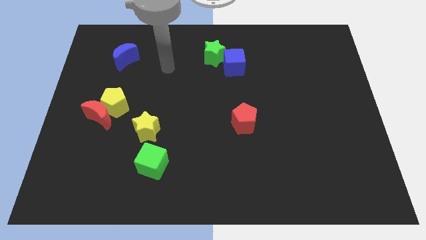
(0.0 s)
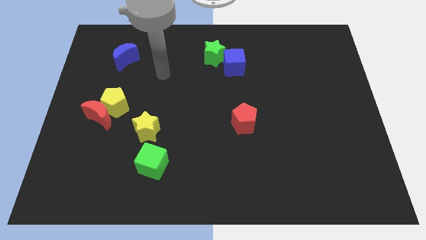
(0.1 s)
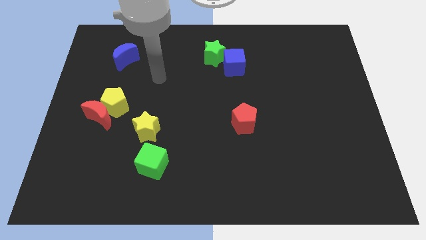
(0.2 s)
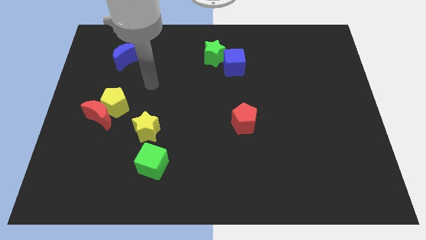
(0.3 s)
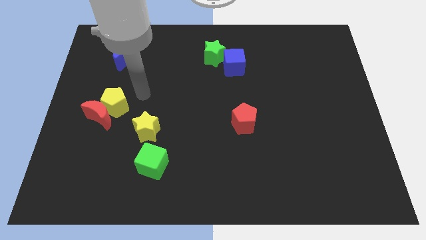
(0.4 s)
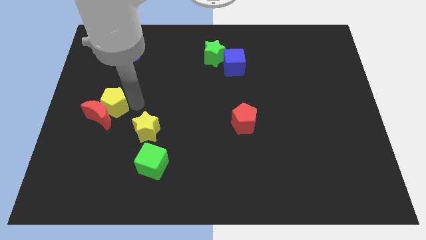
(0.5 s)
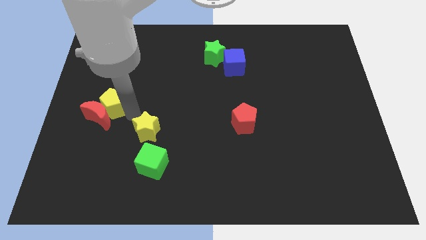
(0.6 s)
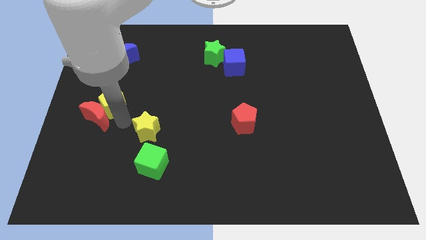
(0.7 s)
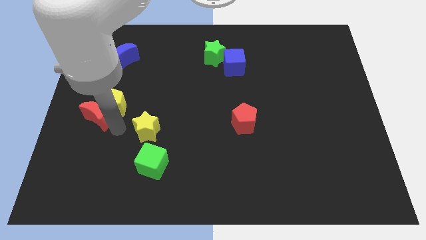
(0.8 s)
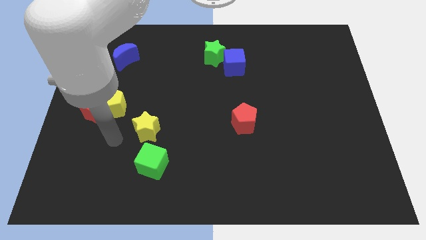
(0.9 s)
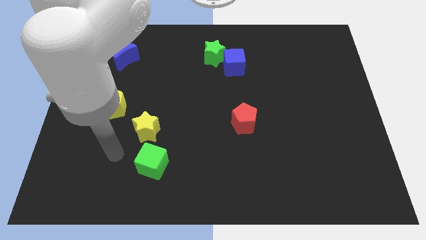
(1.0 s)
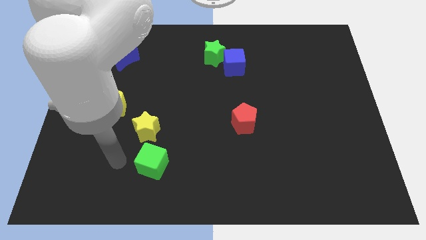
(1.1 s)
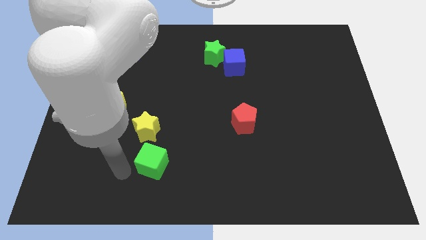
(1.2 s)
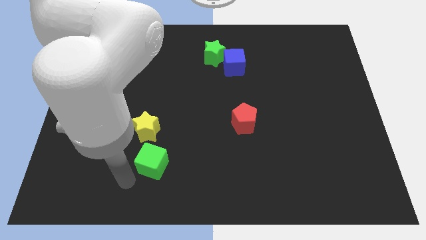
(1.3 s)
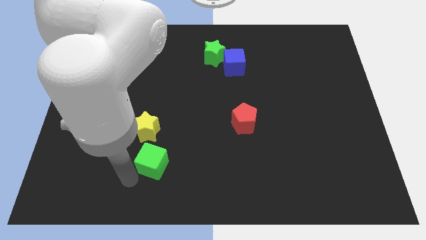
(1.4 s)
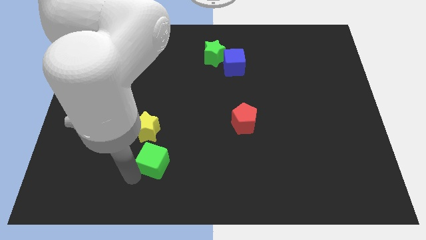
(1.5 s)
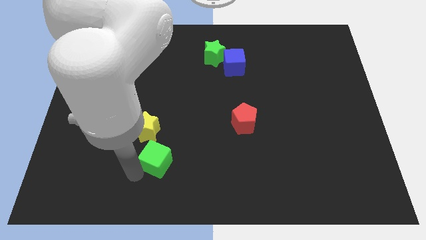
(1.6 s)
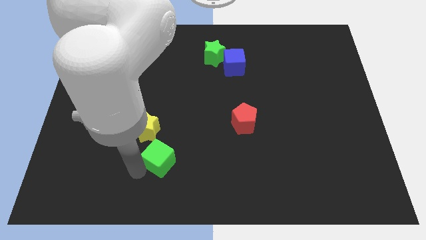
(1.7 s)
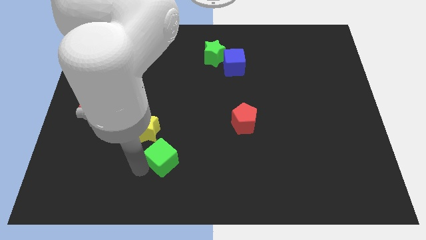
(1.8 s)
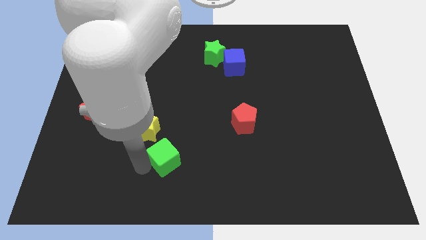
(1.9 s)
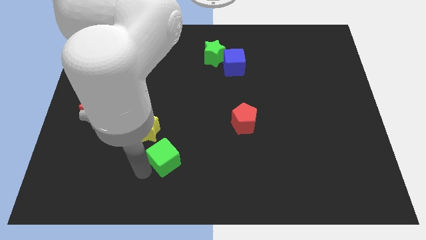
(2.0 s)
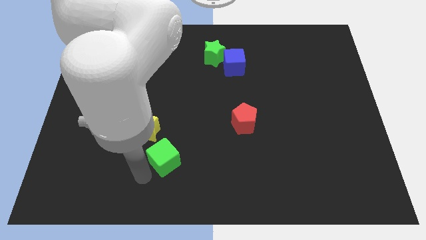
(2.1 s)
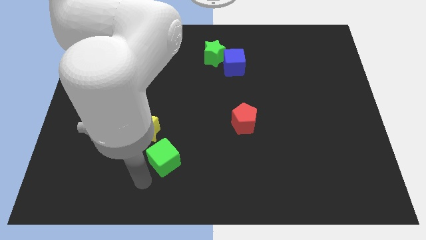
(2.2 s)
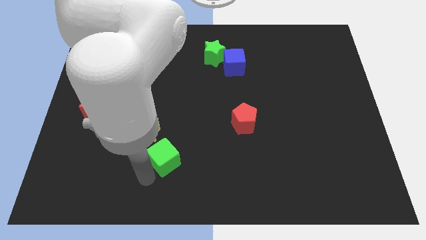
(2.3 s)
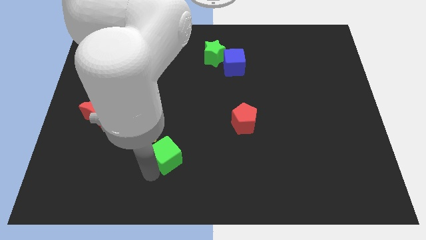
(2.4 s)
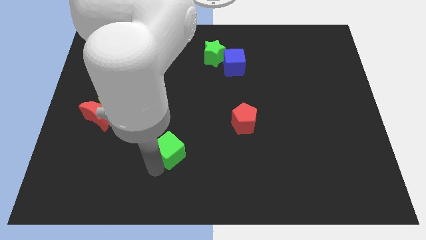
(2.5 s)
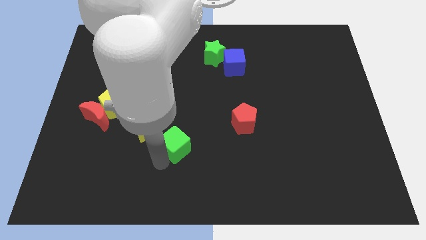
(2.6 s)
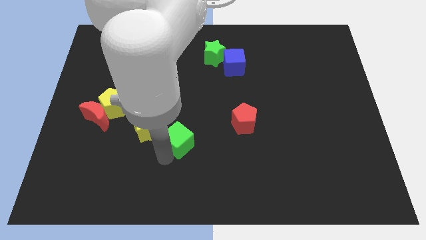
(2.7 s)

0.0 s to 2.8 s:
push the green cube a bit up and to the right diagonally

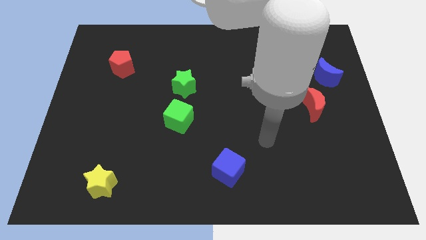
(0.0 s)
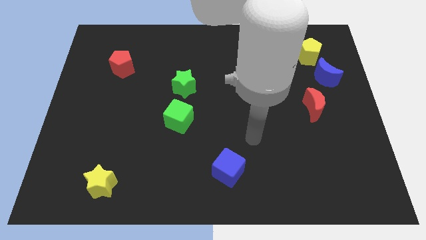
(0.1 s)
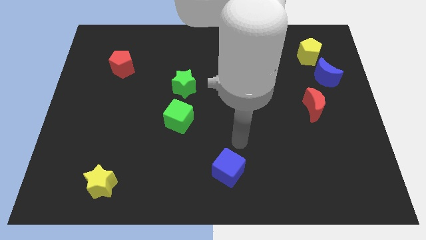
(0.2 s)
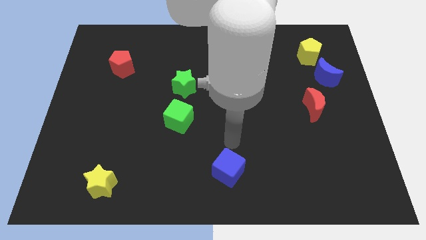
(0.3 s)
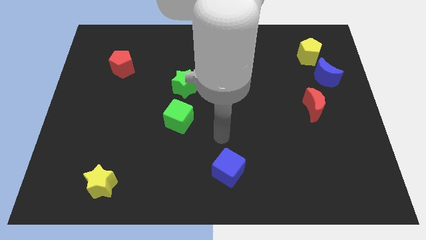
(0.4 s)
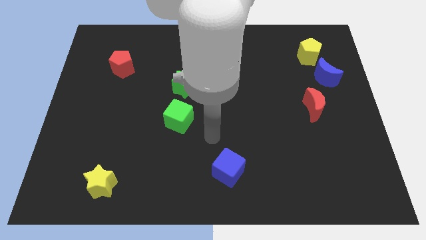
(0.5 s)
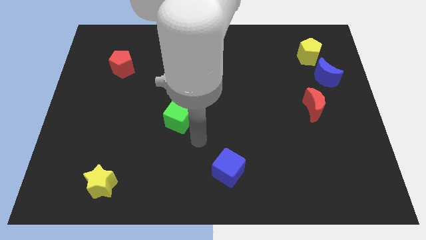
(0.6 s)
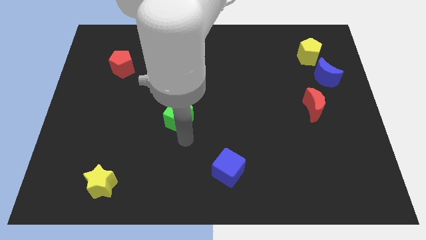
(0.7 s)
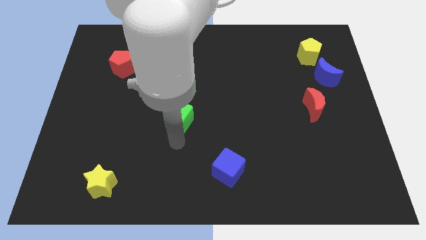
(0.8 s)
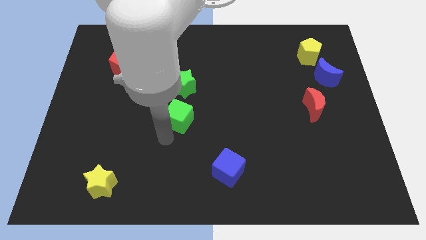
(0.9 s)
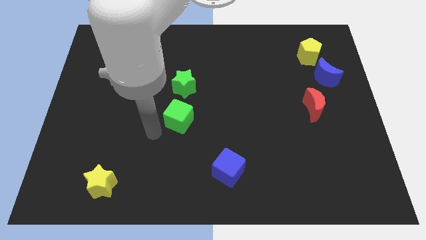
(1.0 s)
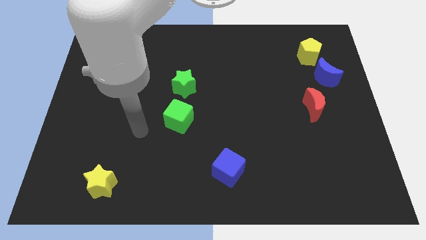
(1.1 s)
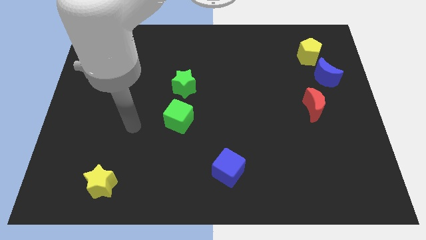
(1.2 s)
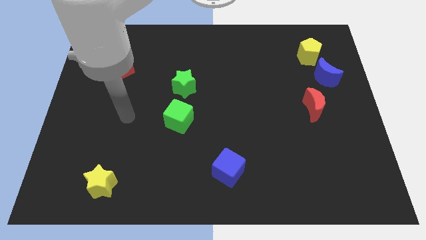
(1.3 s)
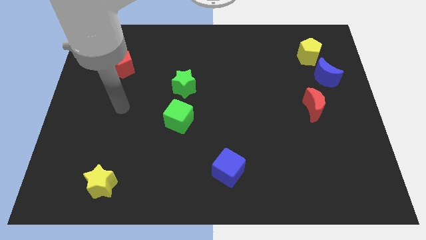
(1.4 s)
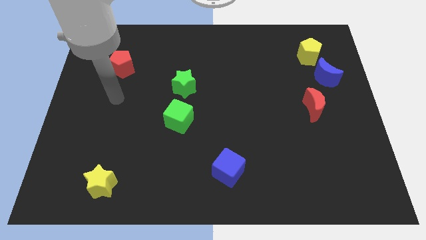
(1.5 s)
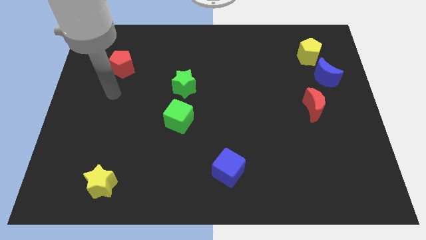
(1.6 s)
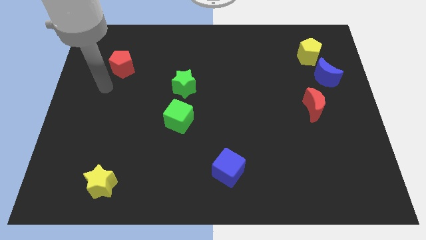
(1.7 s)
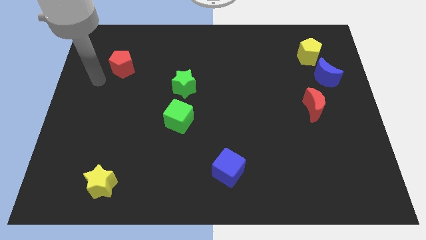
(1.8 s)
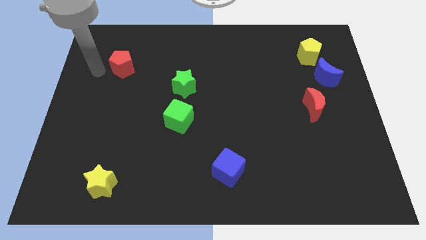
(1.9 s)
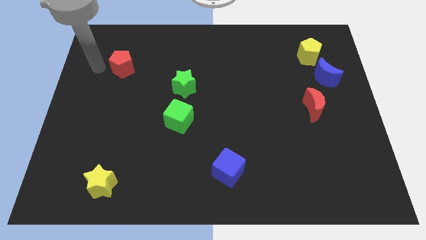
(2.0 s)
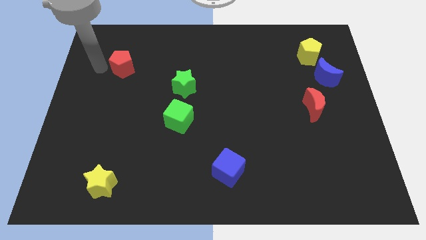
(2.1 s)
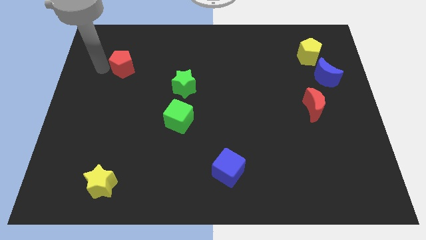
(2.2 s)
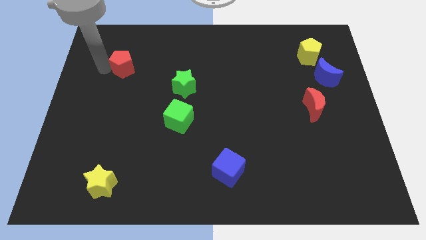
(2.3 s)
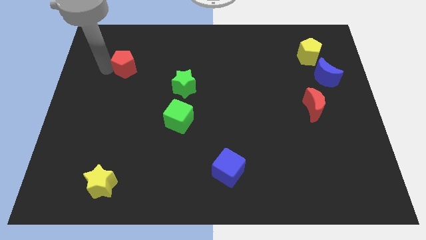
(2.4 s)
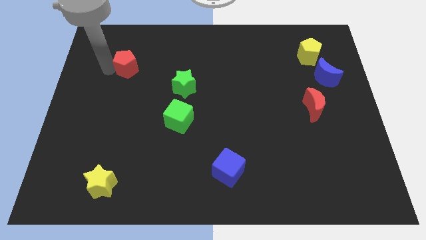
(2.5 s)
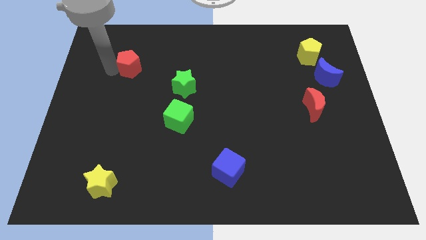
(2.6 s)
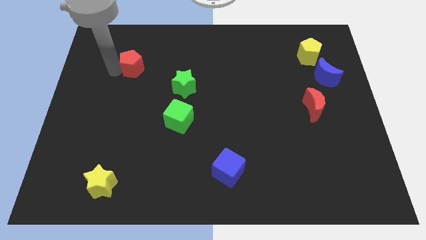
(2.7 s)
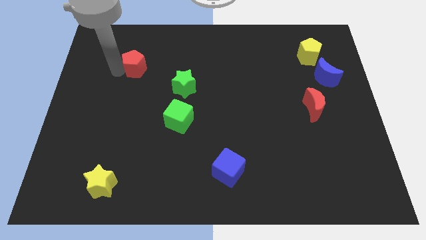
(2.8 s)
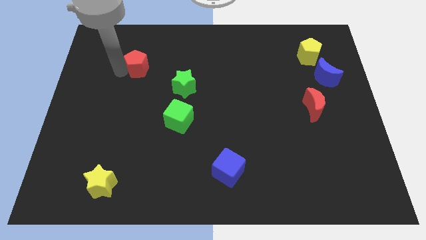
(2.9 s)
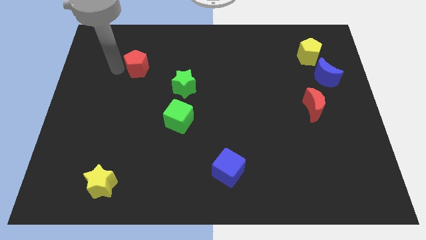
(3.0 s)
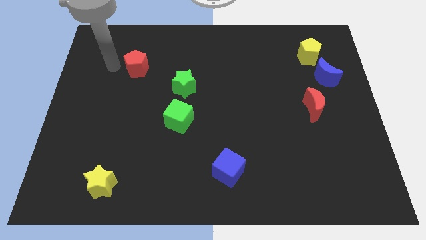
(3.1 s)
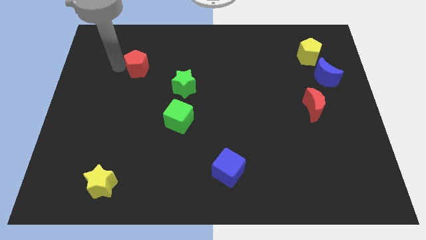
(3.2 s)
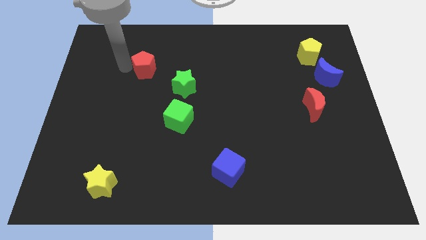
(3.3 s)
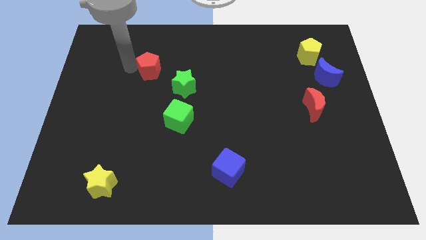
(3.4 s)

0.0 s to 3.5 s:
slide the red pentagon right slightly

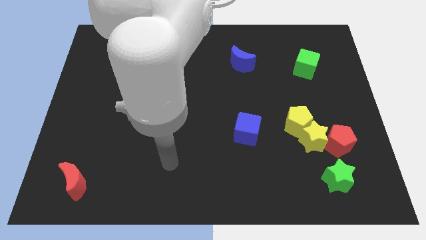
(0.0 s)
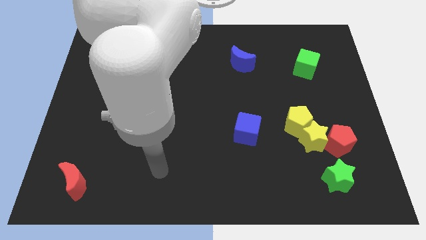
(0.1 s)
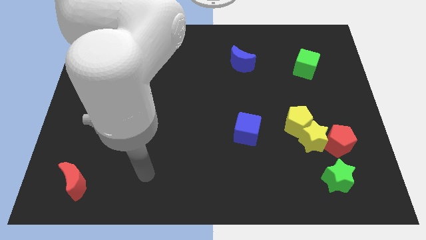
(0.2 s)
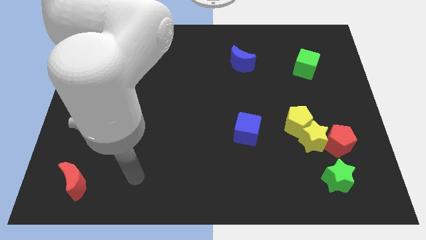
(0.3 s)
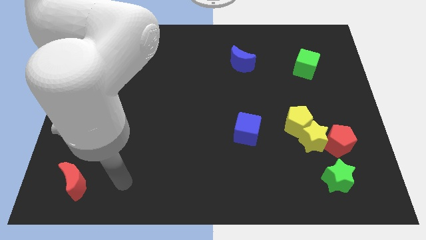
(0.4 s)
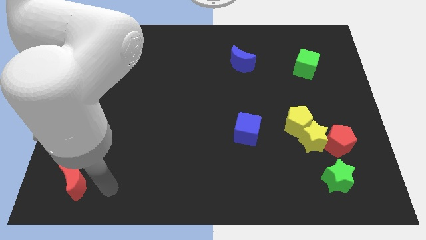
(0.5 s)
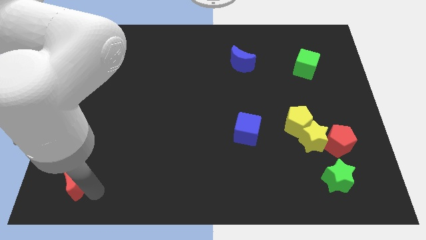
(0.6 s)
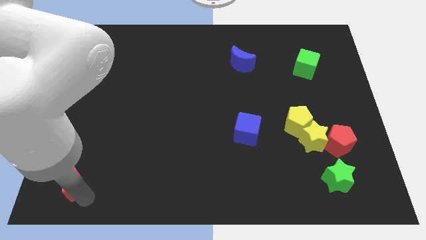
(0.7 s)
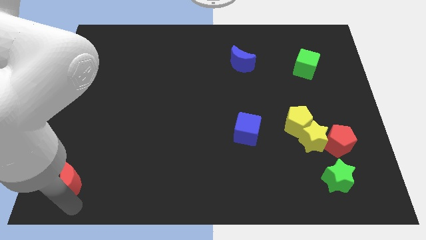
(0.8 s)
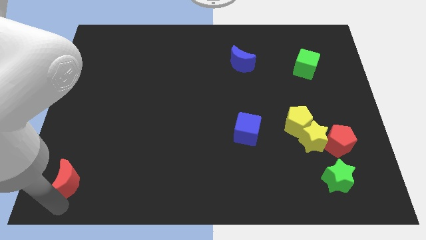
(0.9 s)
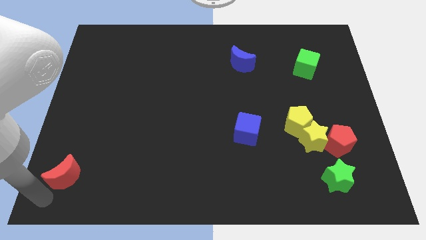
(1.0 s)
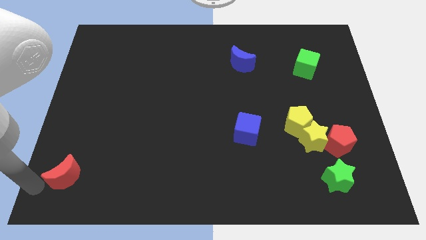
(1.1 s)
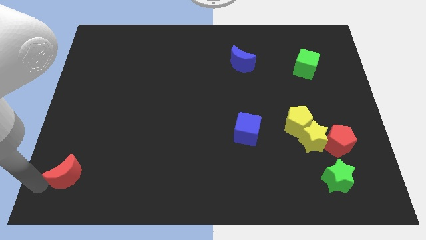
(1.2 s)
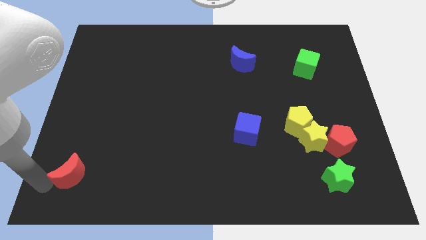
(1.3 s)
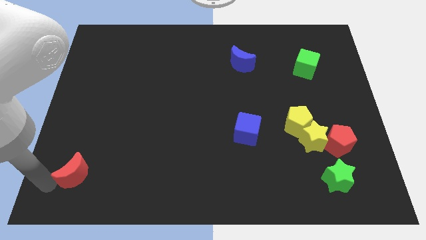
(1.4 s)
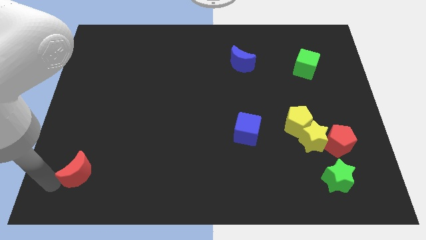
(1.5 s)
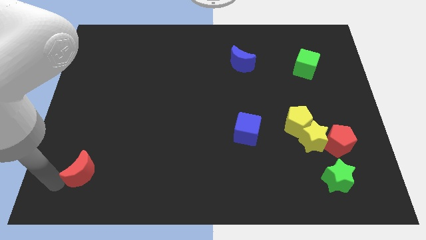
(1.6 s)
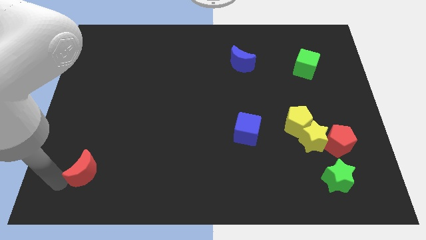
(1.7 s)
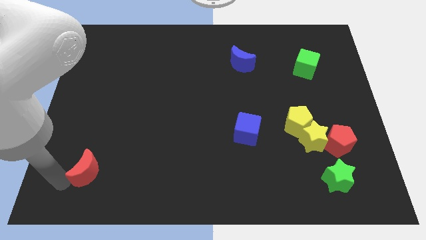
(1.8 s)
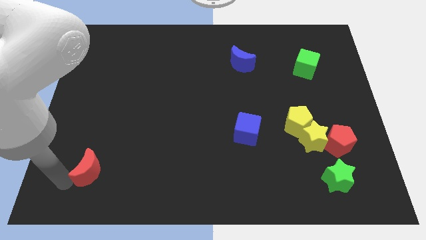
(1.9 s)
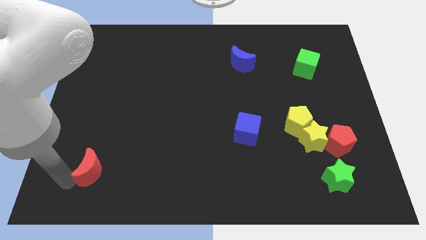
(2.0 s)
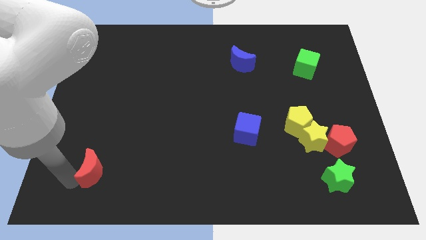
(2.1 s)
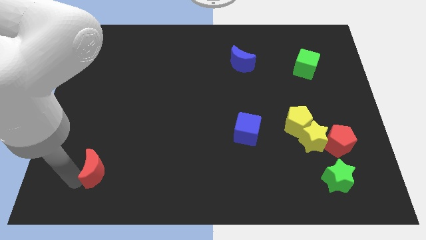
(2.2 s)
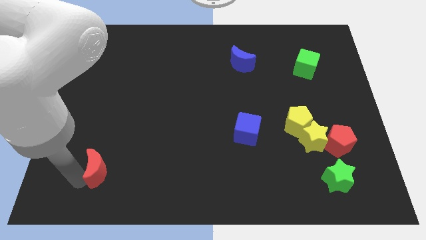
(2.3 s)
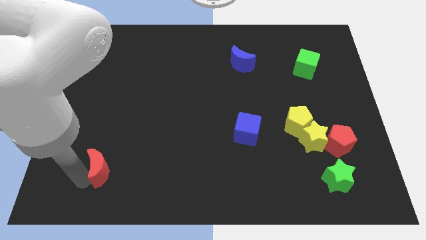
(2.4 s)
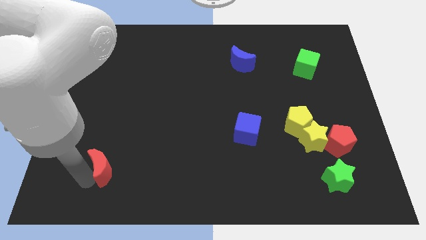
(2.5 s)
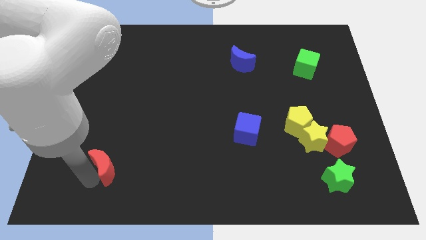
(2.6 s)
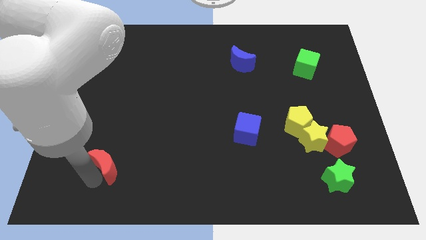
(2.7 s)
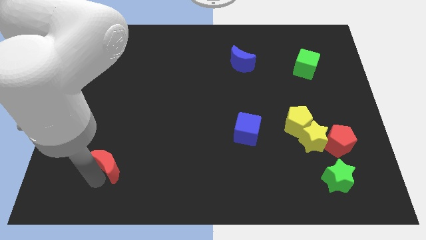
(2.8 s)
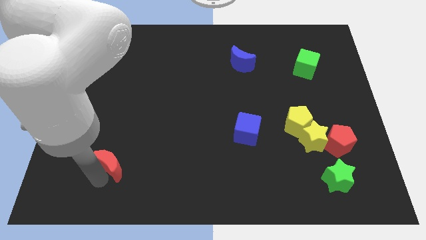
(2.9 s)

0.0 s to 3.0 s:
slide the red moon a little upwards and then right
